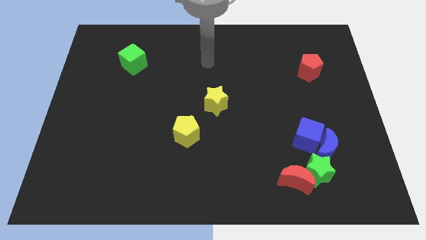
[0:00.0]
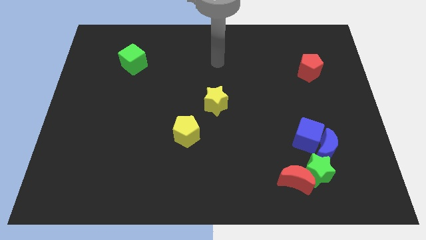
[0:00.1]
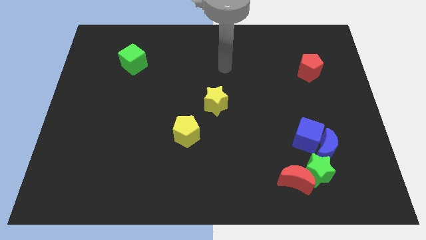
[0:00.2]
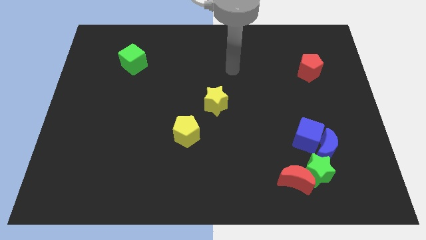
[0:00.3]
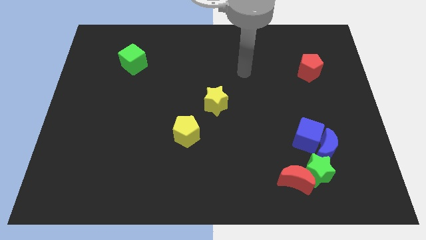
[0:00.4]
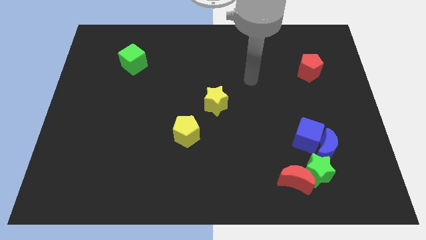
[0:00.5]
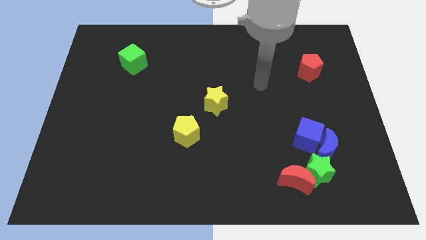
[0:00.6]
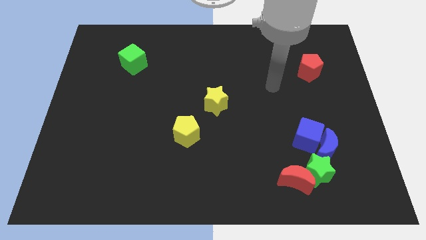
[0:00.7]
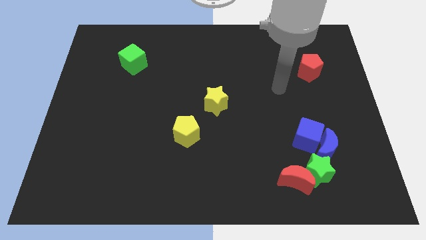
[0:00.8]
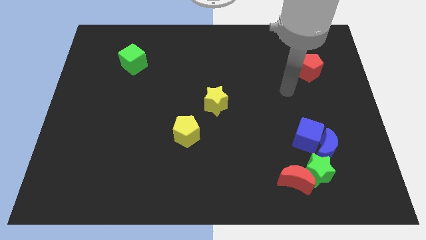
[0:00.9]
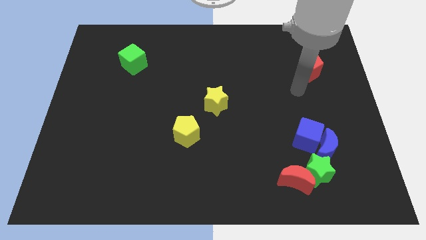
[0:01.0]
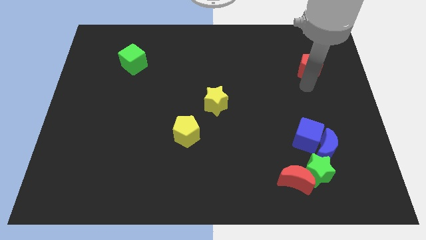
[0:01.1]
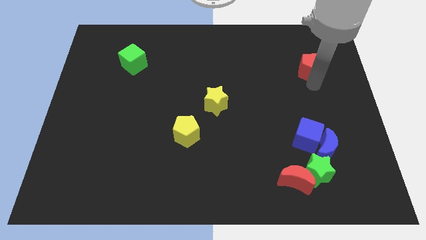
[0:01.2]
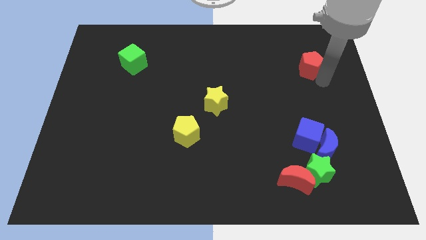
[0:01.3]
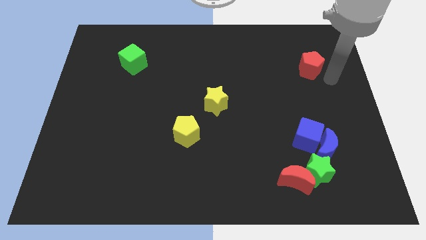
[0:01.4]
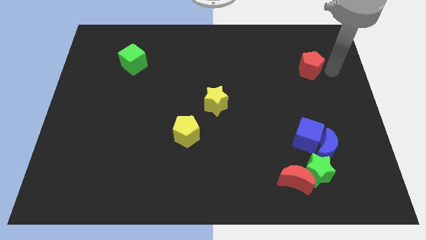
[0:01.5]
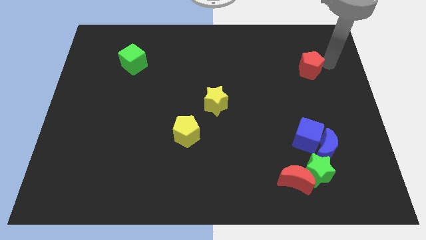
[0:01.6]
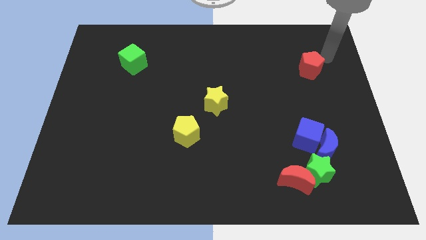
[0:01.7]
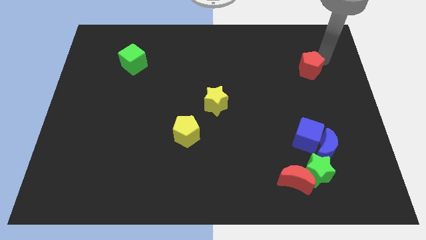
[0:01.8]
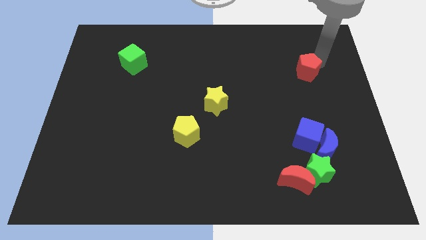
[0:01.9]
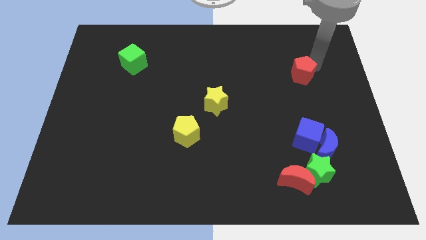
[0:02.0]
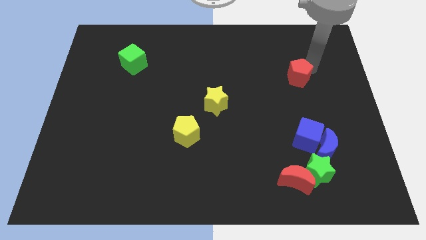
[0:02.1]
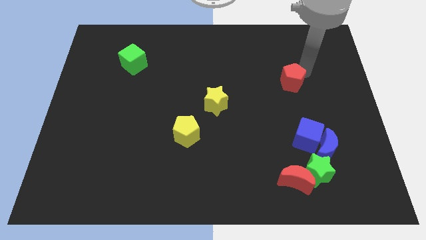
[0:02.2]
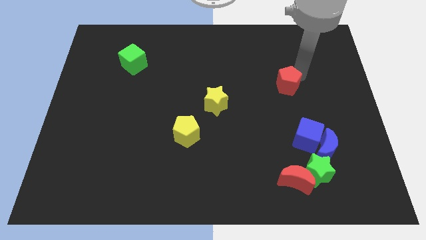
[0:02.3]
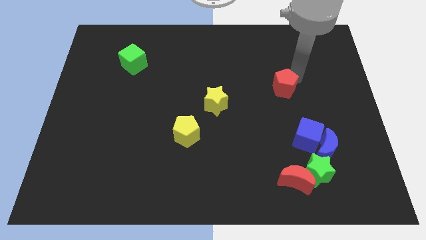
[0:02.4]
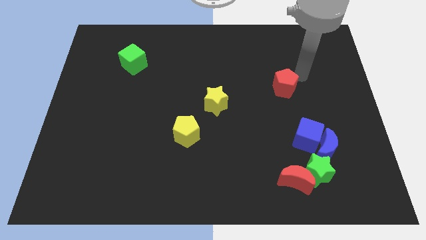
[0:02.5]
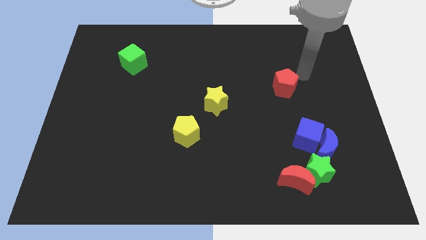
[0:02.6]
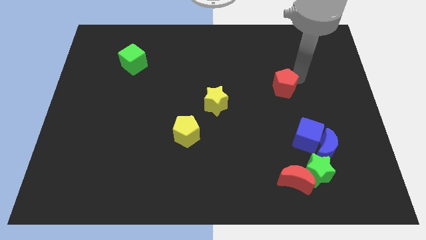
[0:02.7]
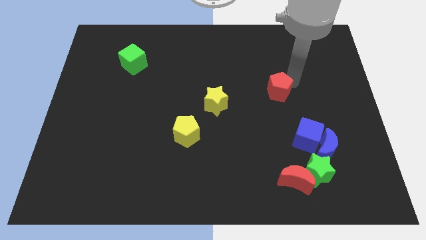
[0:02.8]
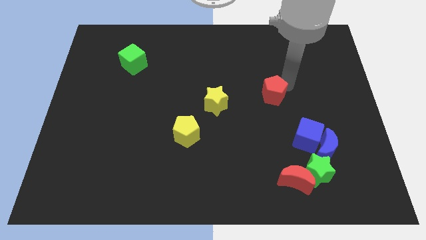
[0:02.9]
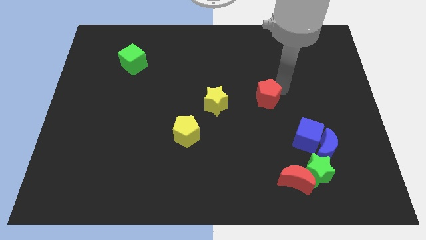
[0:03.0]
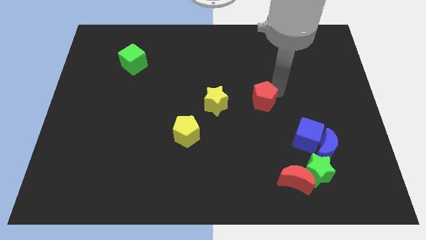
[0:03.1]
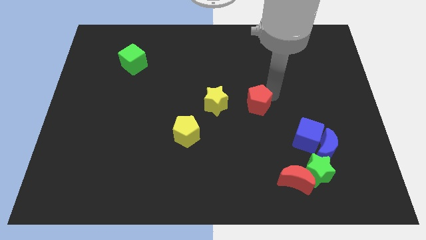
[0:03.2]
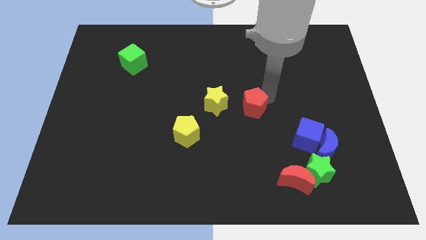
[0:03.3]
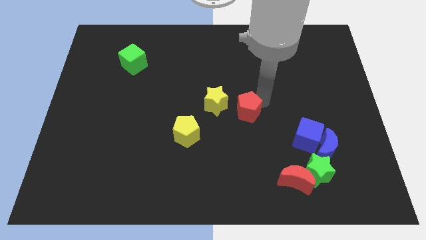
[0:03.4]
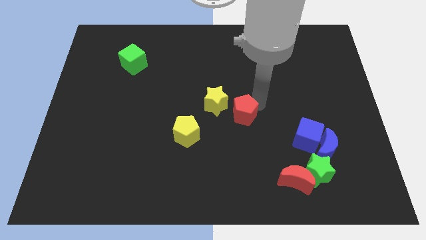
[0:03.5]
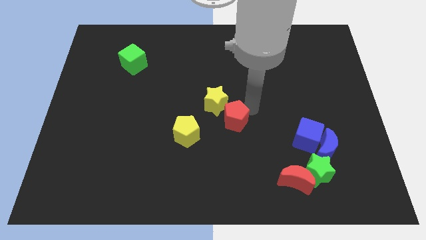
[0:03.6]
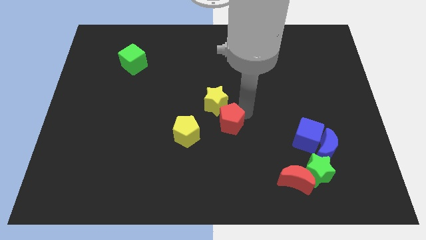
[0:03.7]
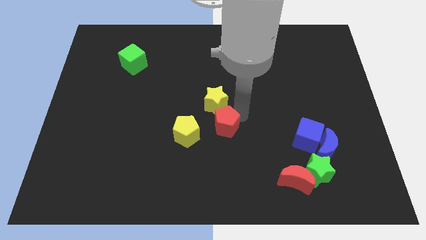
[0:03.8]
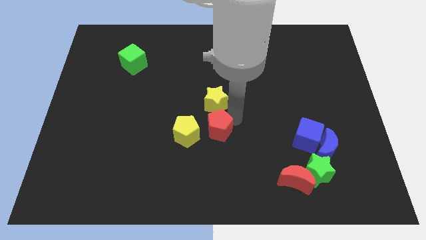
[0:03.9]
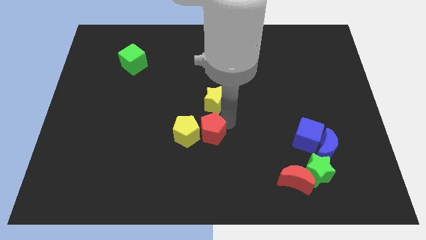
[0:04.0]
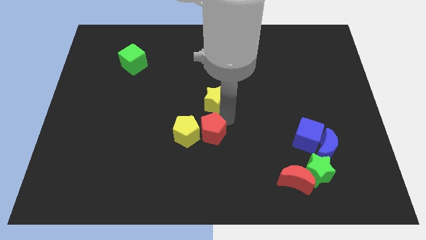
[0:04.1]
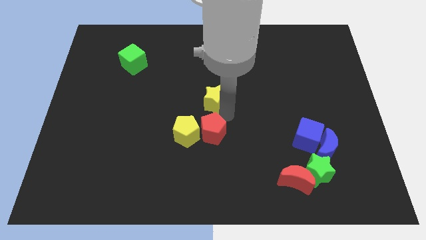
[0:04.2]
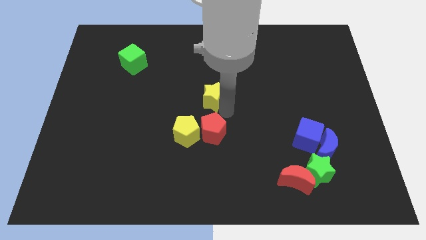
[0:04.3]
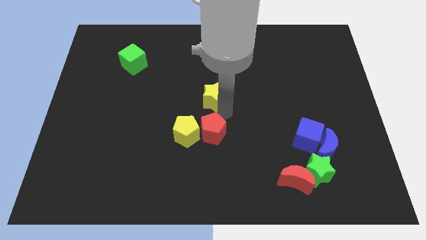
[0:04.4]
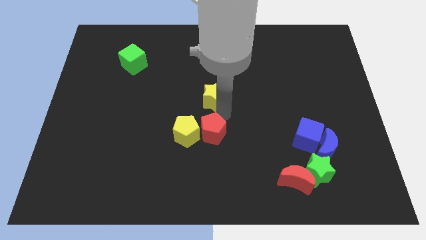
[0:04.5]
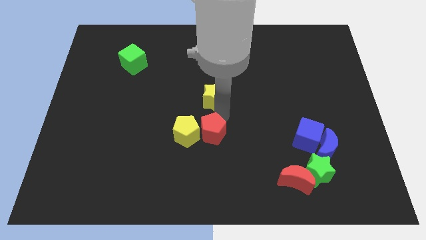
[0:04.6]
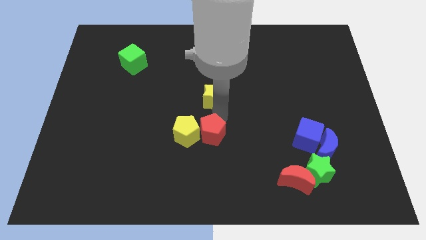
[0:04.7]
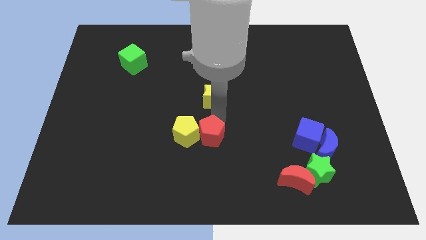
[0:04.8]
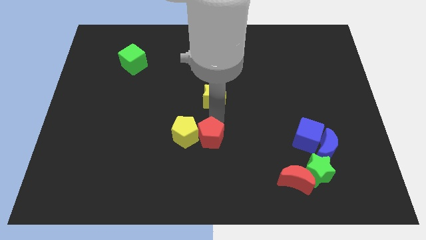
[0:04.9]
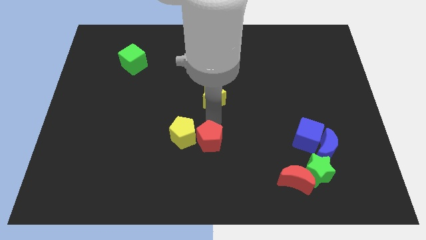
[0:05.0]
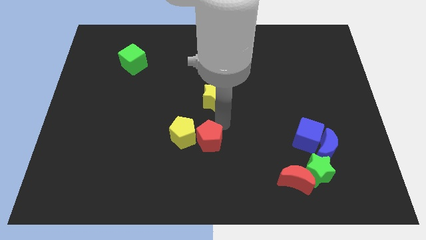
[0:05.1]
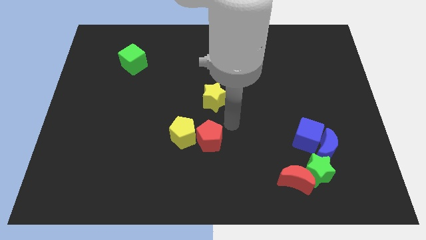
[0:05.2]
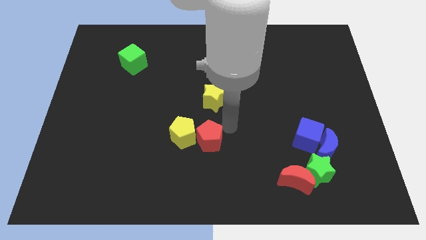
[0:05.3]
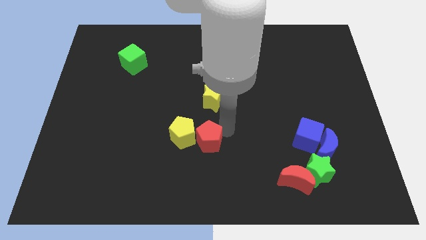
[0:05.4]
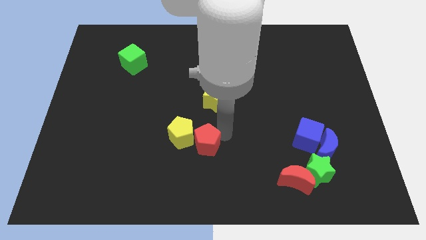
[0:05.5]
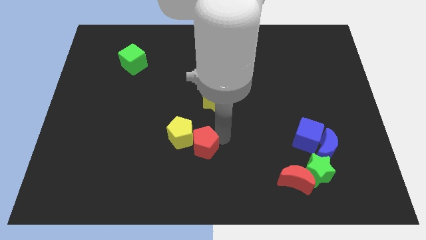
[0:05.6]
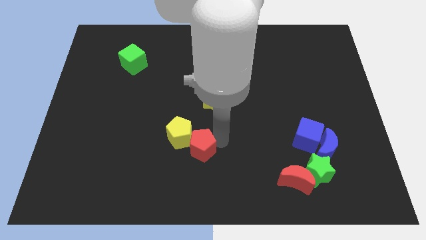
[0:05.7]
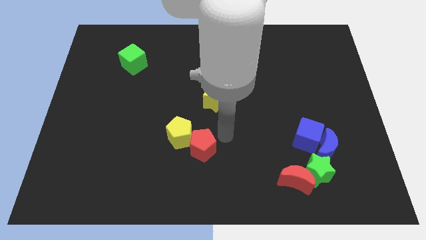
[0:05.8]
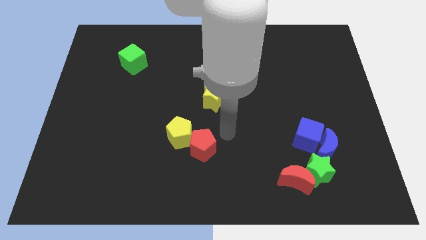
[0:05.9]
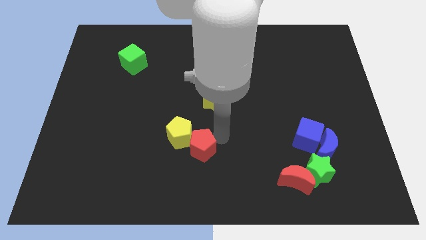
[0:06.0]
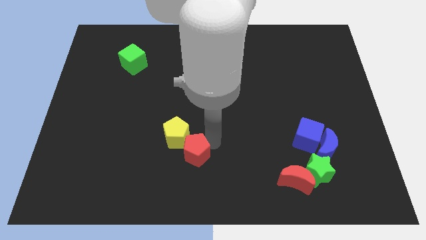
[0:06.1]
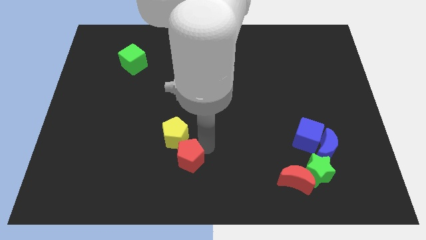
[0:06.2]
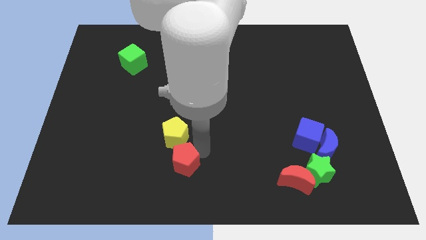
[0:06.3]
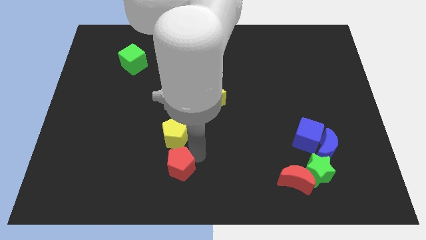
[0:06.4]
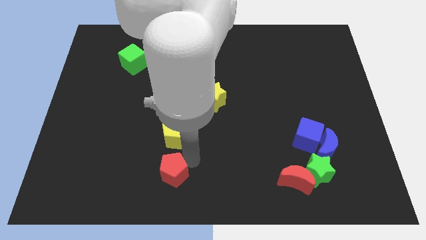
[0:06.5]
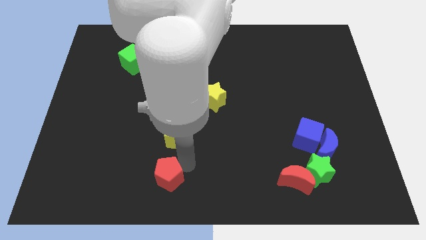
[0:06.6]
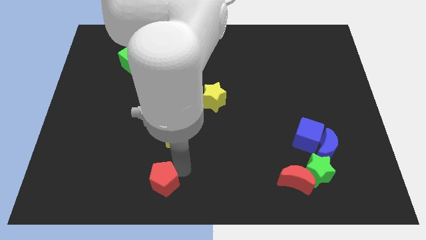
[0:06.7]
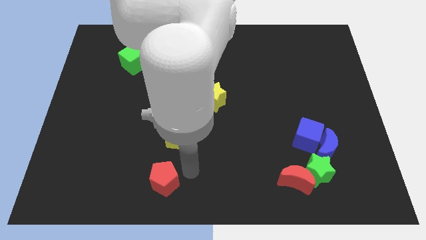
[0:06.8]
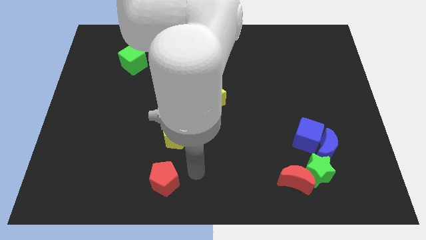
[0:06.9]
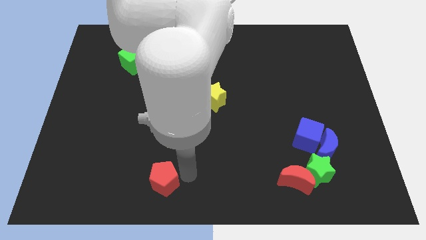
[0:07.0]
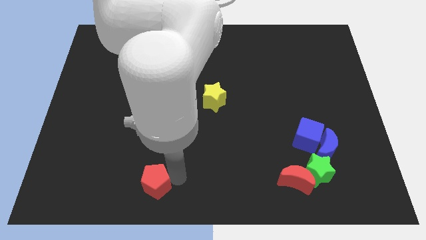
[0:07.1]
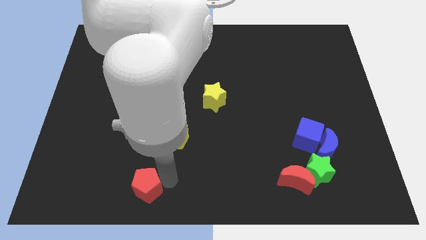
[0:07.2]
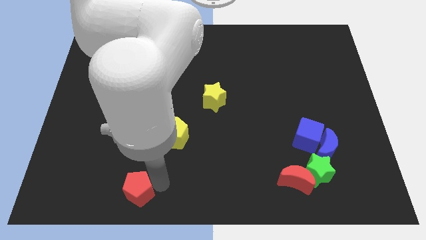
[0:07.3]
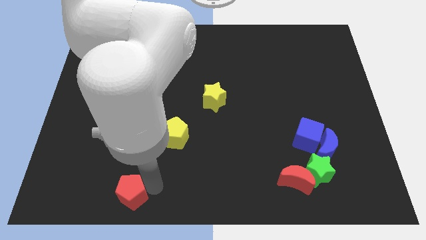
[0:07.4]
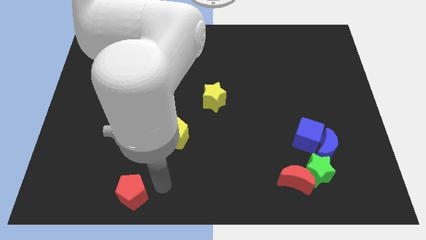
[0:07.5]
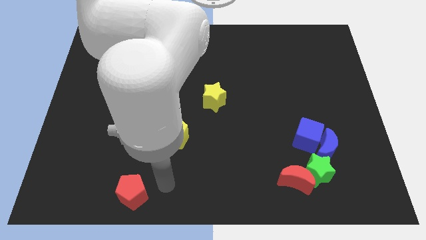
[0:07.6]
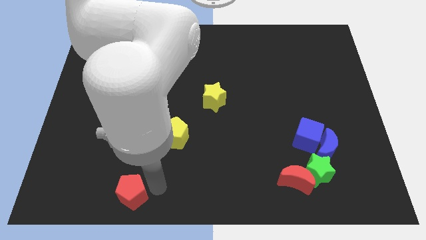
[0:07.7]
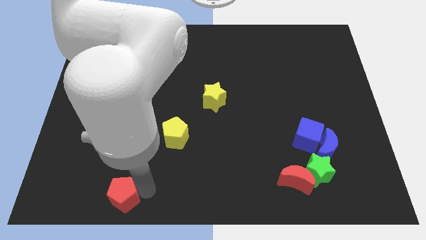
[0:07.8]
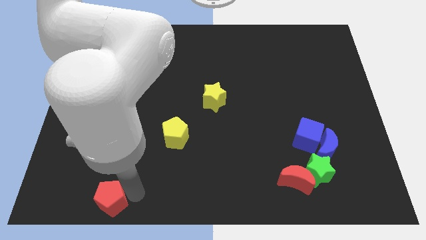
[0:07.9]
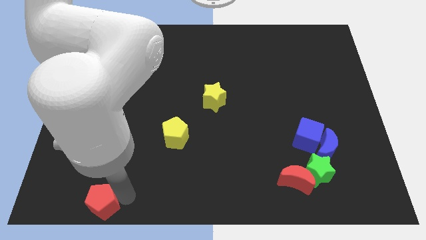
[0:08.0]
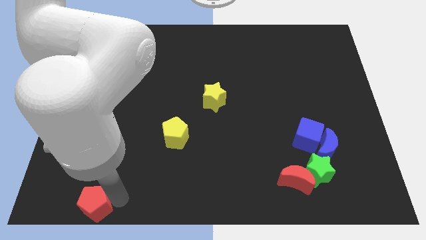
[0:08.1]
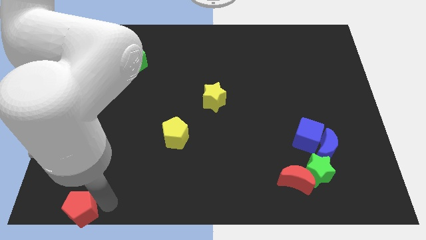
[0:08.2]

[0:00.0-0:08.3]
slide the red pentagon to the bottom left of the board
